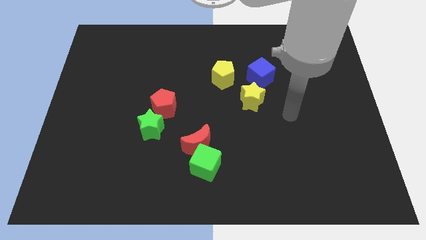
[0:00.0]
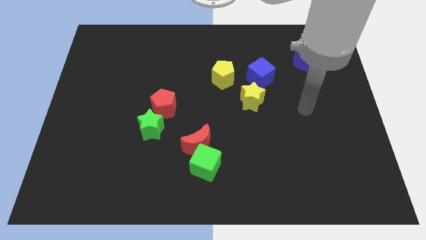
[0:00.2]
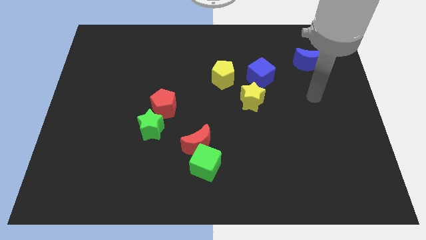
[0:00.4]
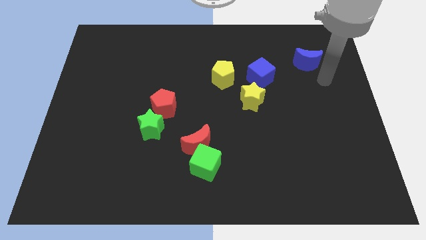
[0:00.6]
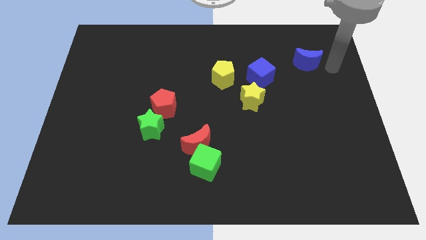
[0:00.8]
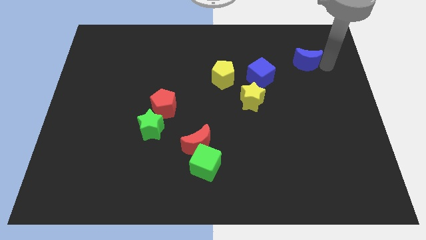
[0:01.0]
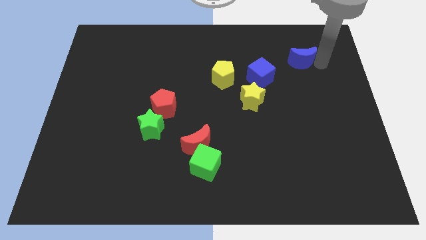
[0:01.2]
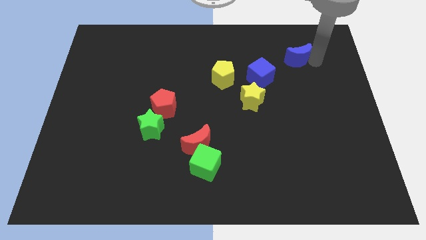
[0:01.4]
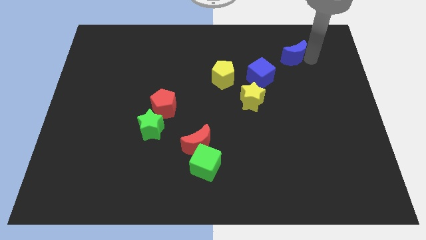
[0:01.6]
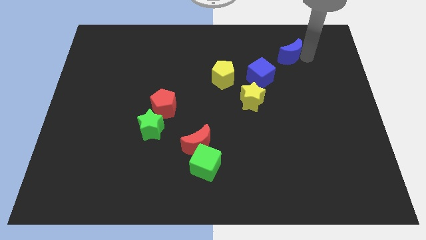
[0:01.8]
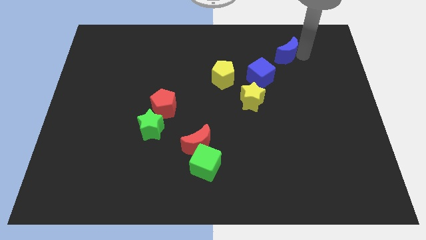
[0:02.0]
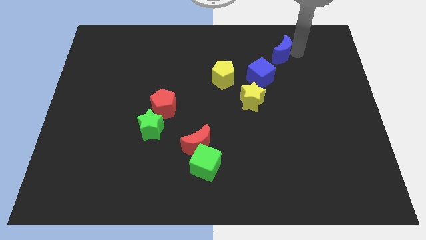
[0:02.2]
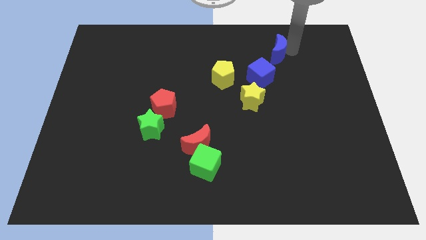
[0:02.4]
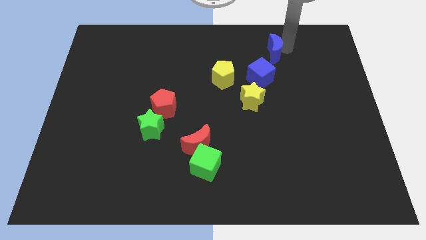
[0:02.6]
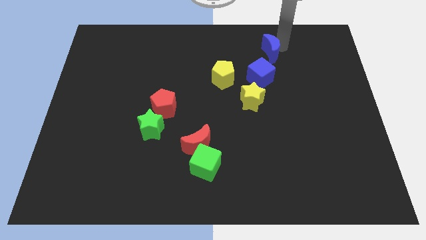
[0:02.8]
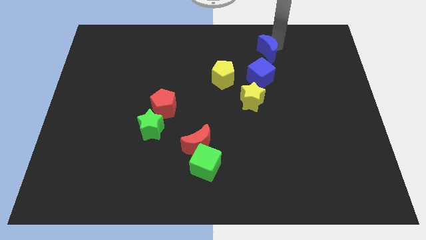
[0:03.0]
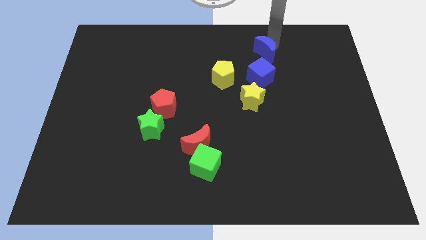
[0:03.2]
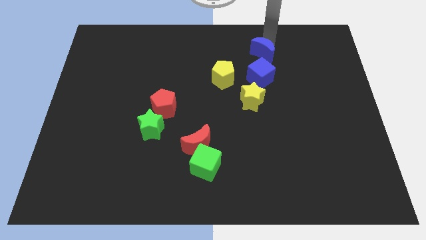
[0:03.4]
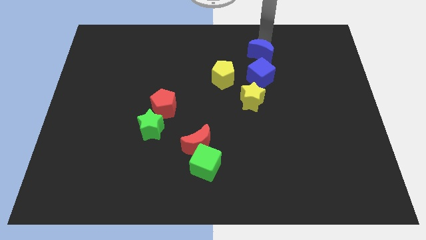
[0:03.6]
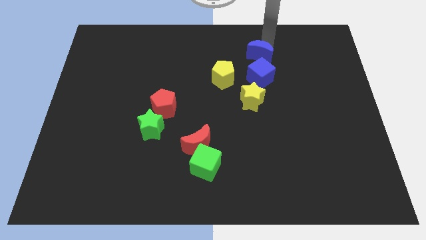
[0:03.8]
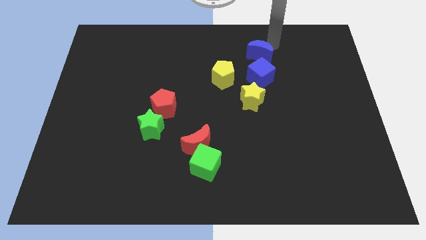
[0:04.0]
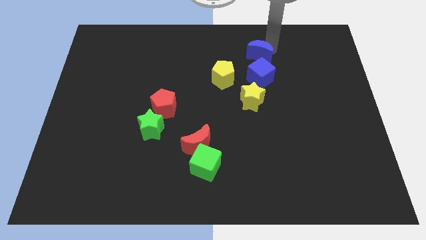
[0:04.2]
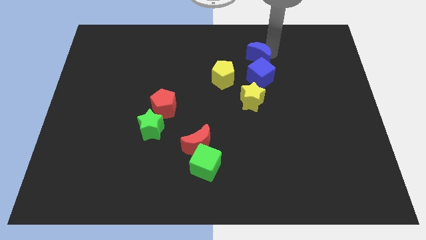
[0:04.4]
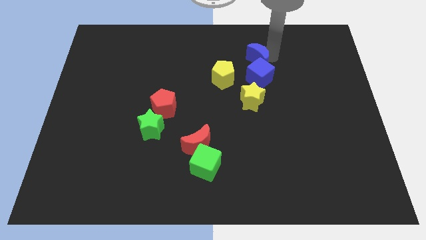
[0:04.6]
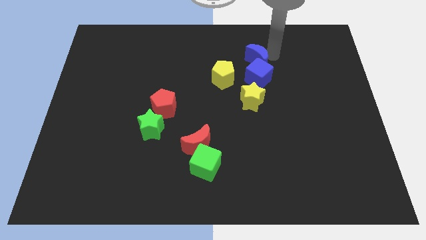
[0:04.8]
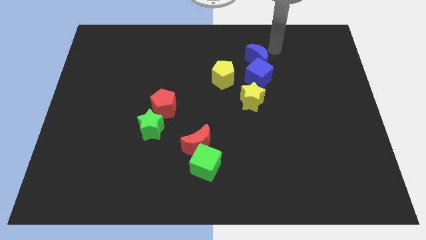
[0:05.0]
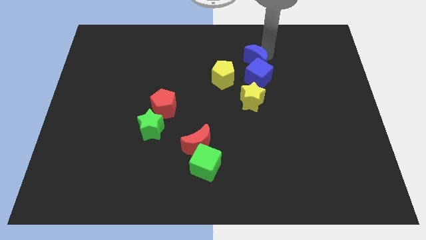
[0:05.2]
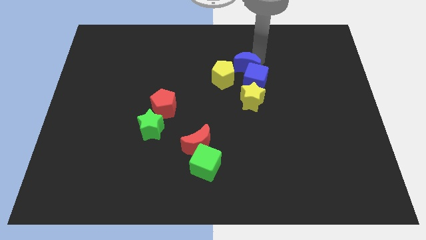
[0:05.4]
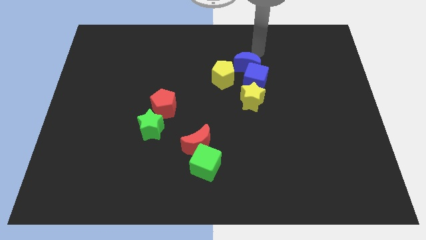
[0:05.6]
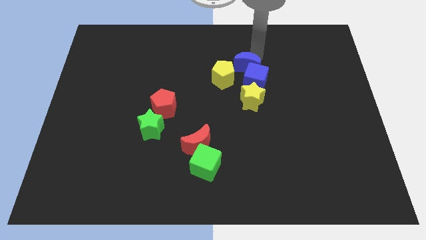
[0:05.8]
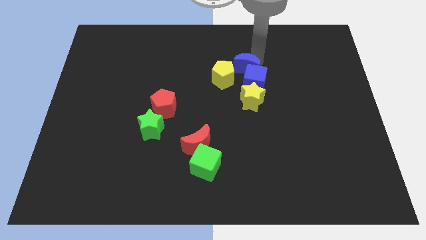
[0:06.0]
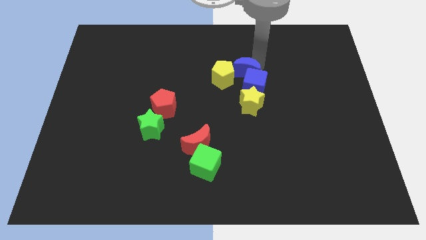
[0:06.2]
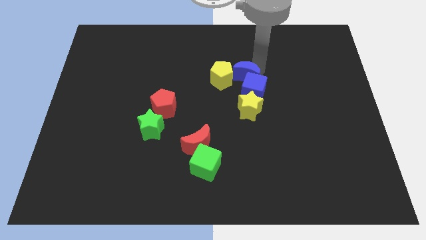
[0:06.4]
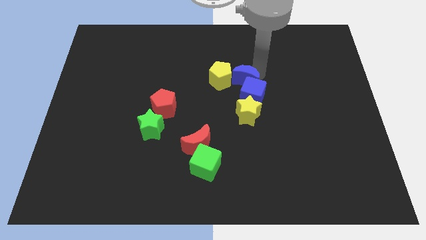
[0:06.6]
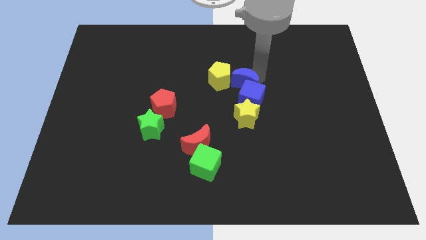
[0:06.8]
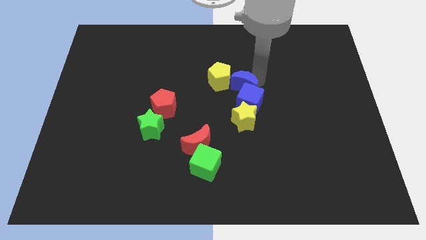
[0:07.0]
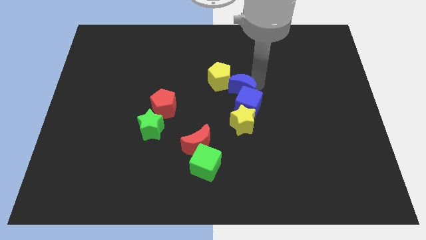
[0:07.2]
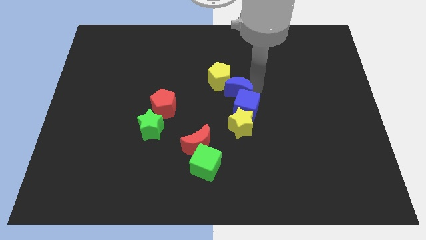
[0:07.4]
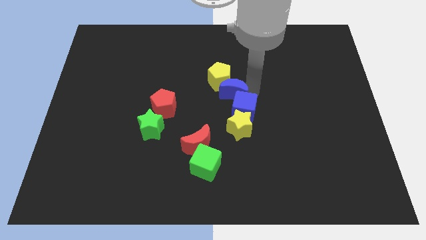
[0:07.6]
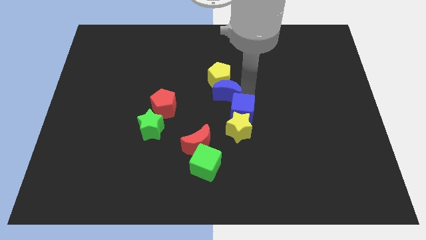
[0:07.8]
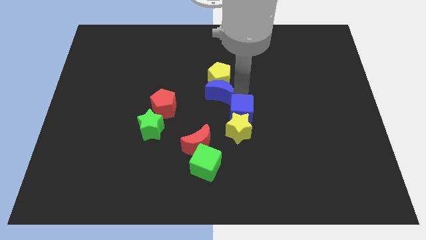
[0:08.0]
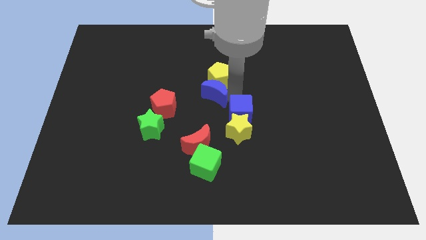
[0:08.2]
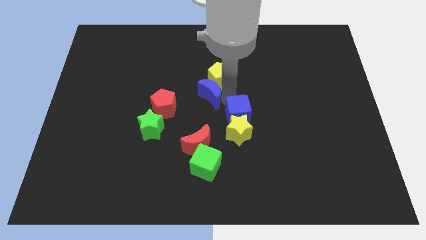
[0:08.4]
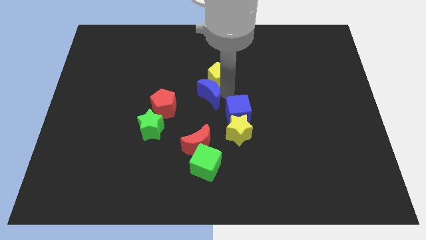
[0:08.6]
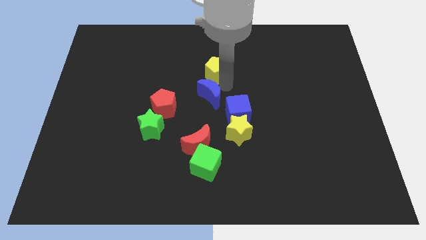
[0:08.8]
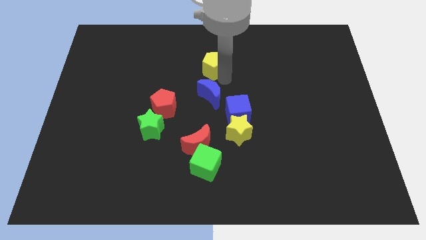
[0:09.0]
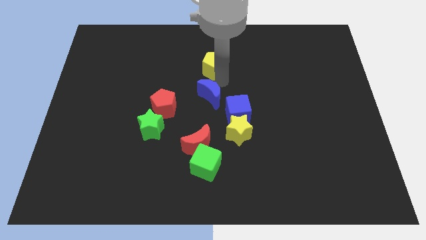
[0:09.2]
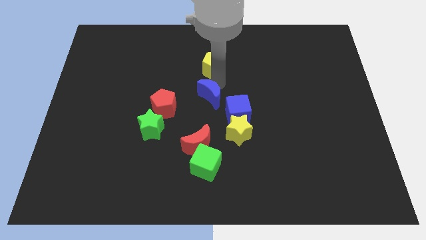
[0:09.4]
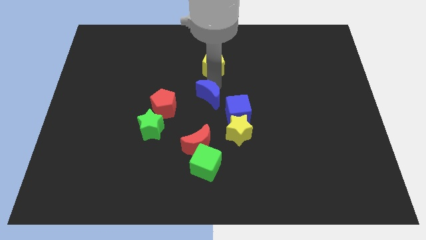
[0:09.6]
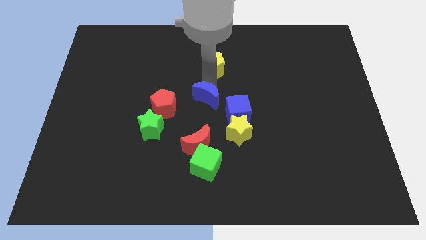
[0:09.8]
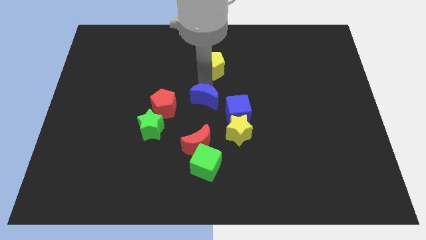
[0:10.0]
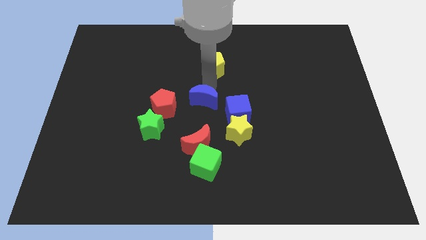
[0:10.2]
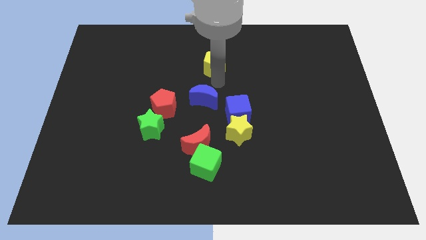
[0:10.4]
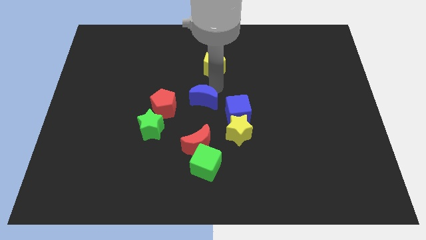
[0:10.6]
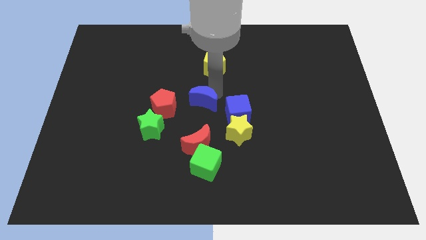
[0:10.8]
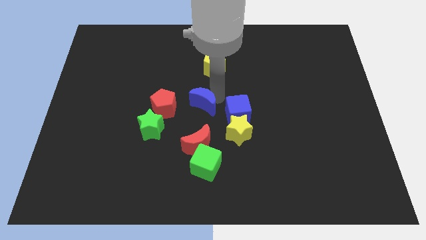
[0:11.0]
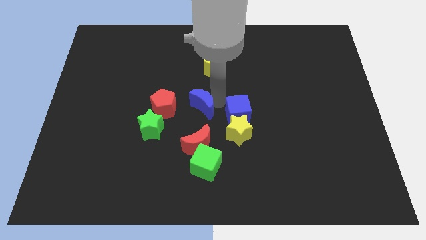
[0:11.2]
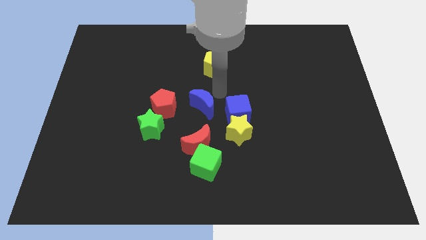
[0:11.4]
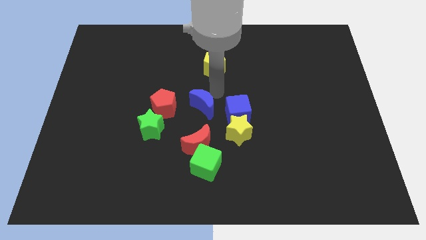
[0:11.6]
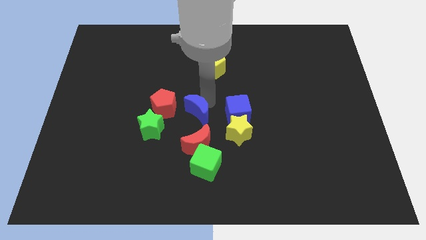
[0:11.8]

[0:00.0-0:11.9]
move the blue moon to the bottom right of the red pentagon

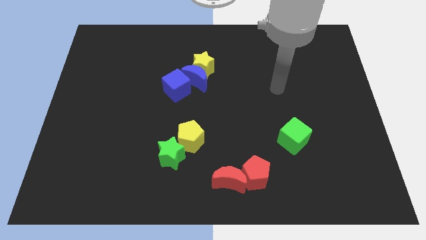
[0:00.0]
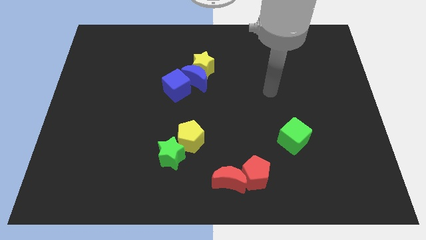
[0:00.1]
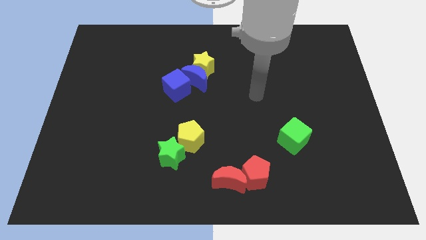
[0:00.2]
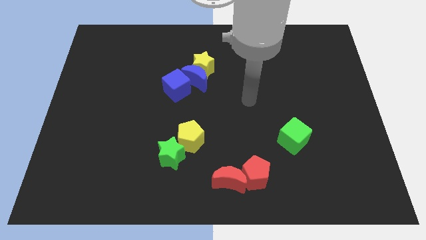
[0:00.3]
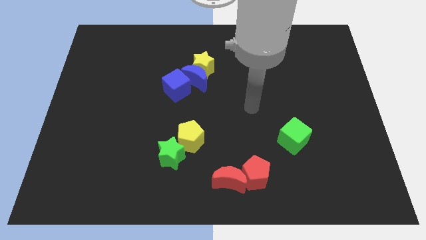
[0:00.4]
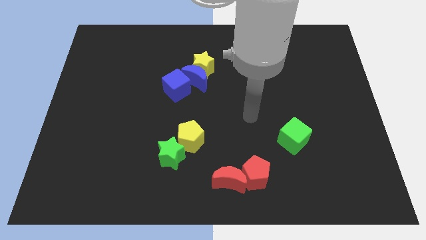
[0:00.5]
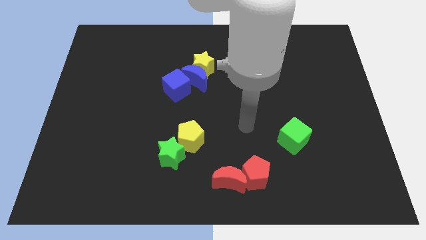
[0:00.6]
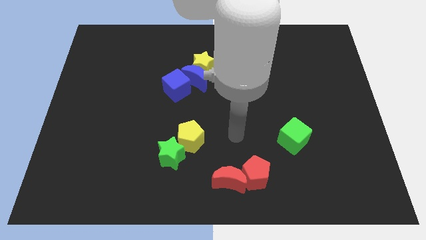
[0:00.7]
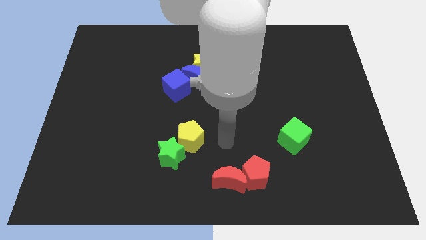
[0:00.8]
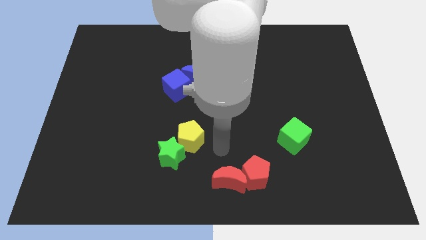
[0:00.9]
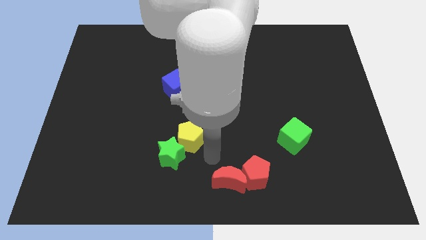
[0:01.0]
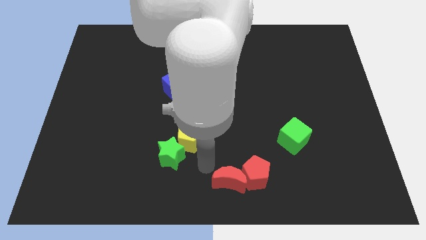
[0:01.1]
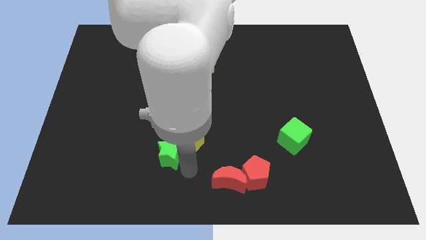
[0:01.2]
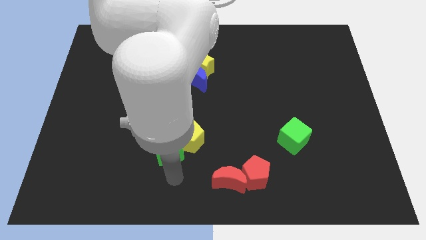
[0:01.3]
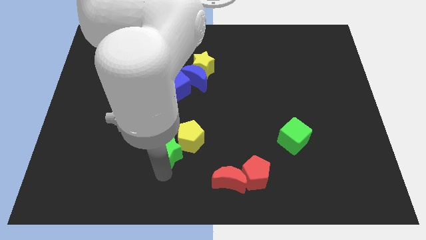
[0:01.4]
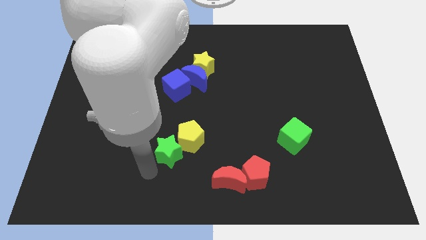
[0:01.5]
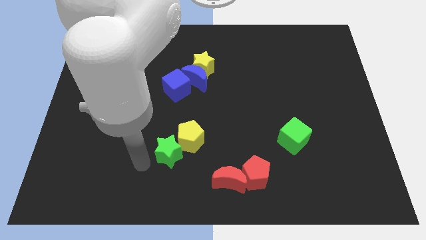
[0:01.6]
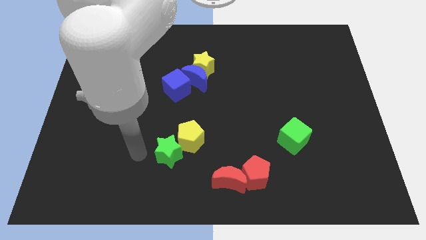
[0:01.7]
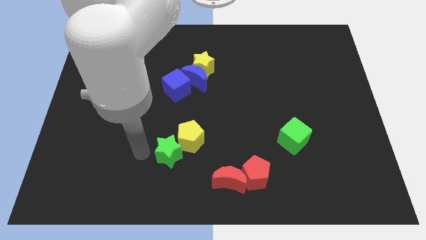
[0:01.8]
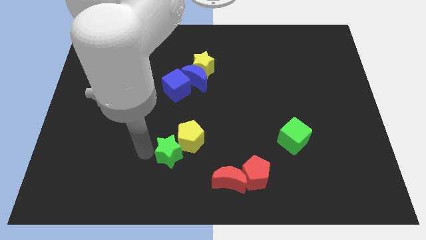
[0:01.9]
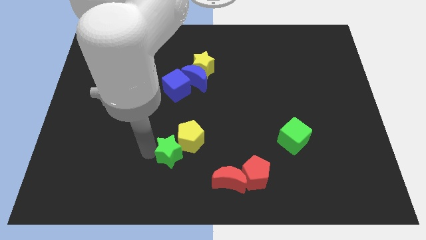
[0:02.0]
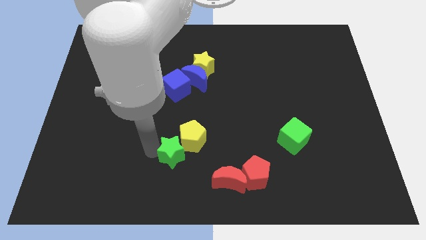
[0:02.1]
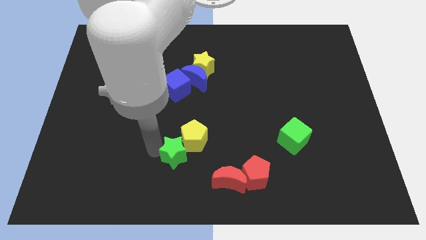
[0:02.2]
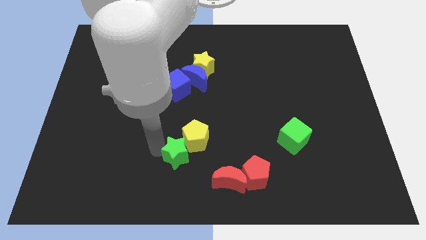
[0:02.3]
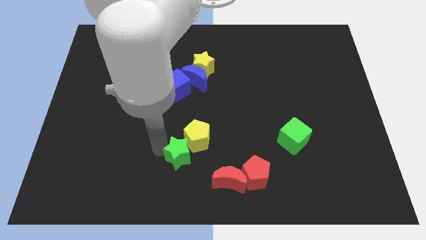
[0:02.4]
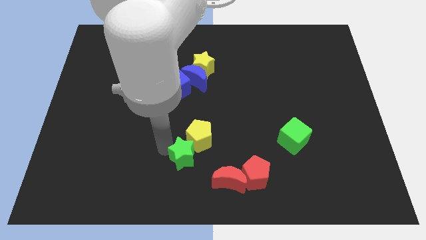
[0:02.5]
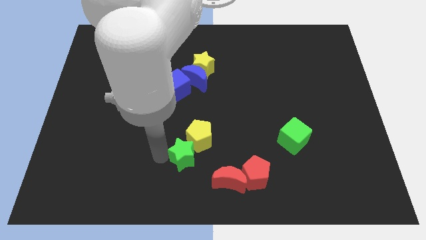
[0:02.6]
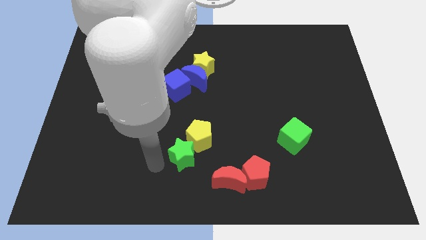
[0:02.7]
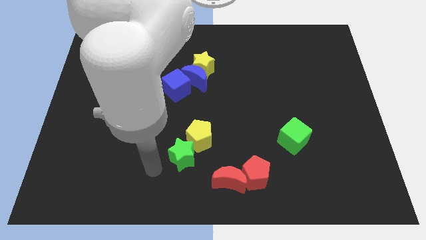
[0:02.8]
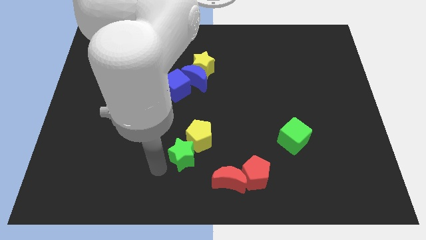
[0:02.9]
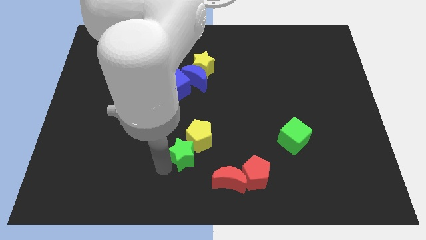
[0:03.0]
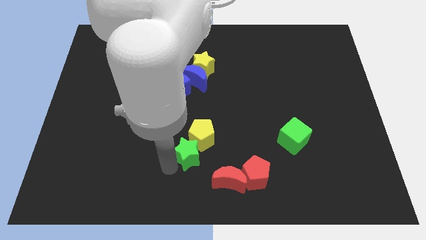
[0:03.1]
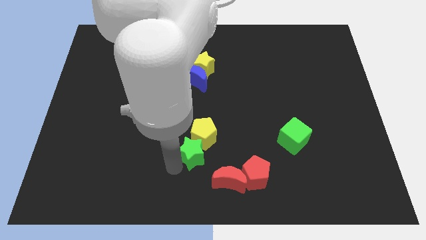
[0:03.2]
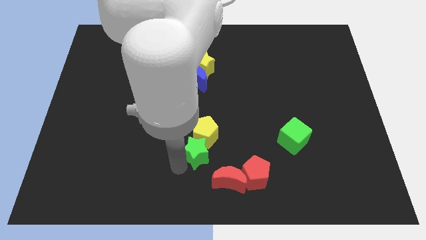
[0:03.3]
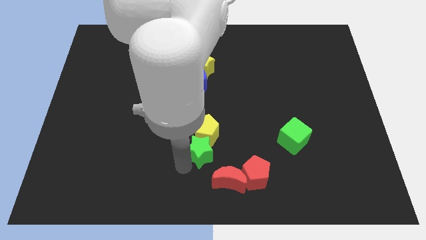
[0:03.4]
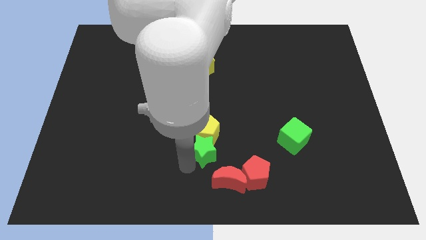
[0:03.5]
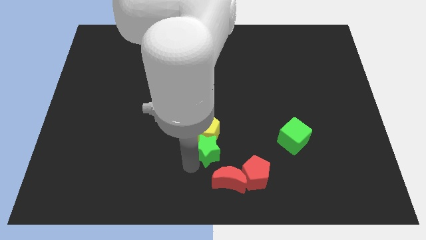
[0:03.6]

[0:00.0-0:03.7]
move the green star above the red moon
